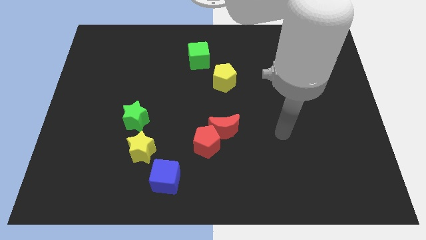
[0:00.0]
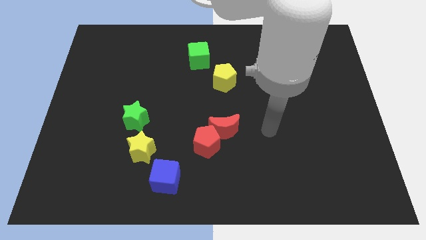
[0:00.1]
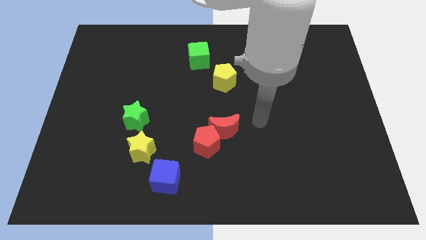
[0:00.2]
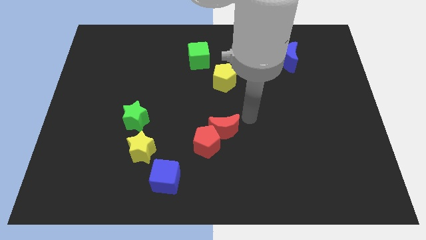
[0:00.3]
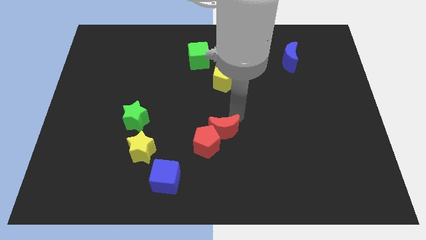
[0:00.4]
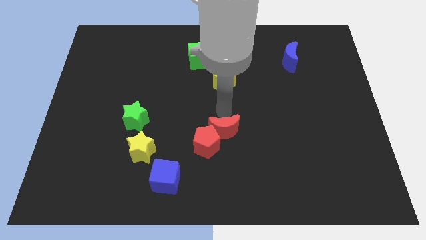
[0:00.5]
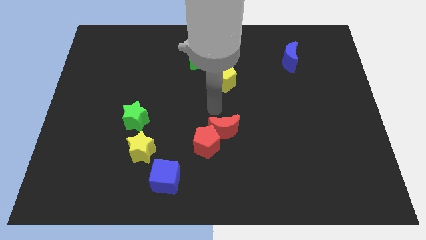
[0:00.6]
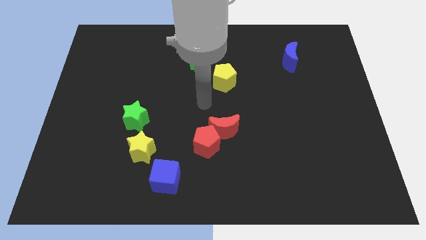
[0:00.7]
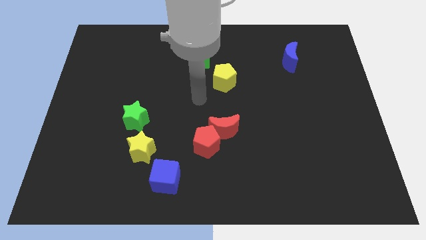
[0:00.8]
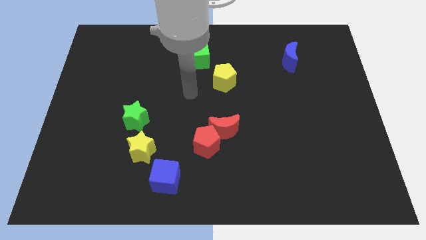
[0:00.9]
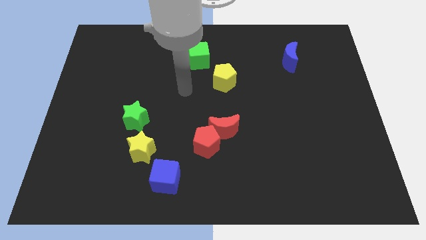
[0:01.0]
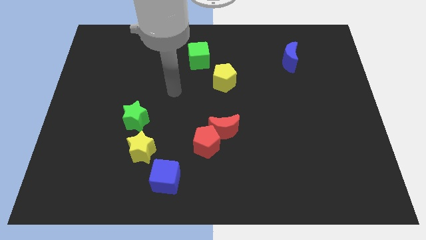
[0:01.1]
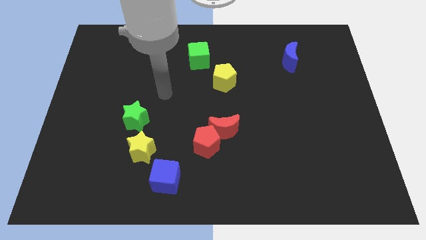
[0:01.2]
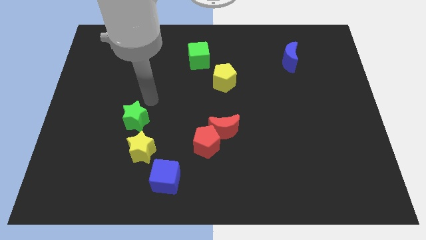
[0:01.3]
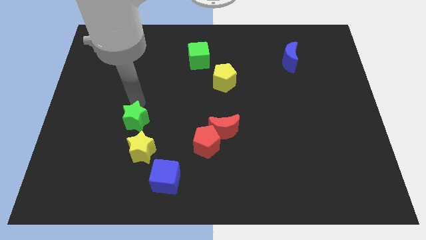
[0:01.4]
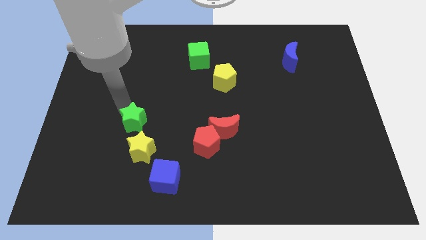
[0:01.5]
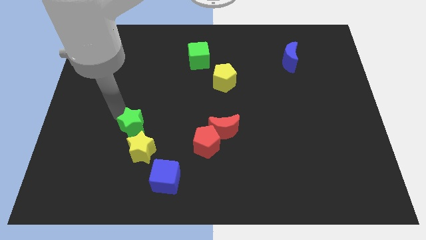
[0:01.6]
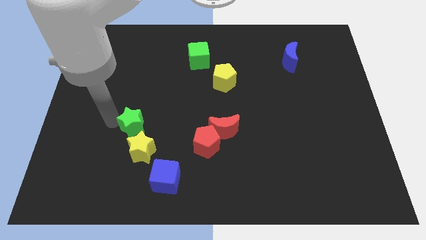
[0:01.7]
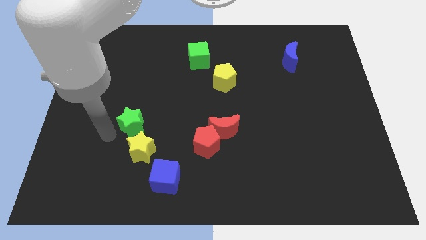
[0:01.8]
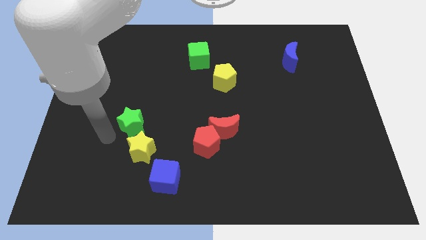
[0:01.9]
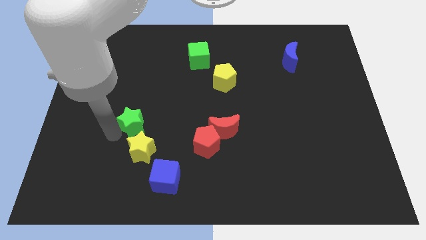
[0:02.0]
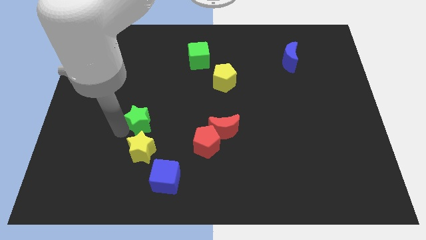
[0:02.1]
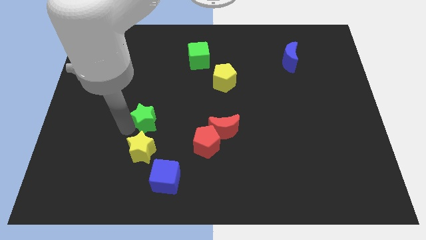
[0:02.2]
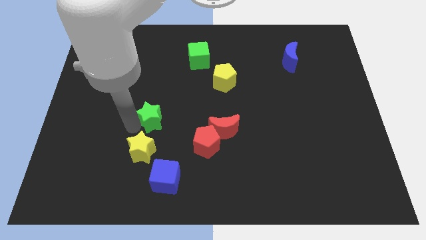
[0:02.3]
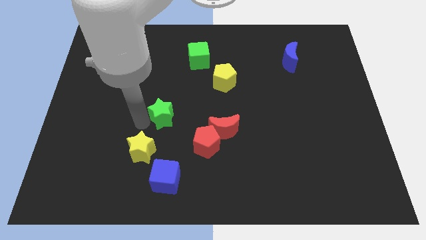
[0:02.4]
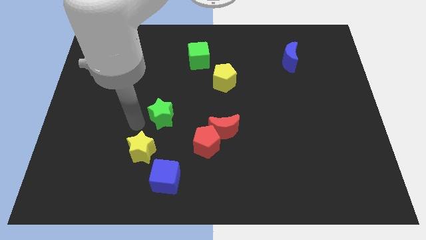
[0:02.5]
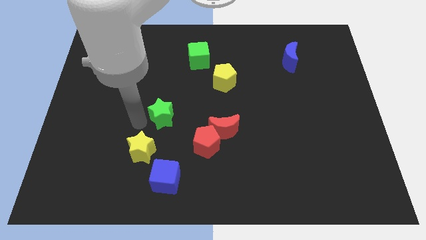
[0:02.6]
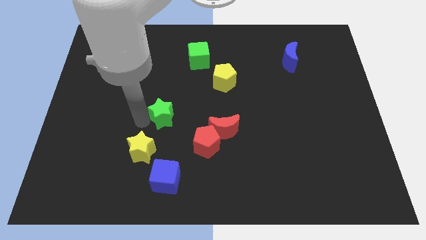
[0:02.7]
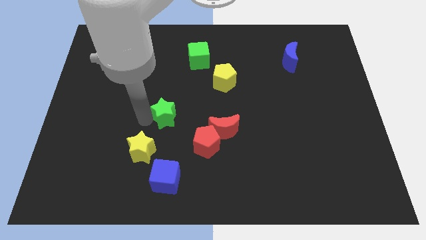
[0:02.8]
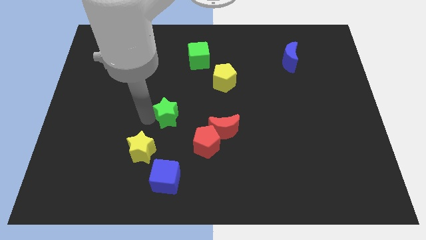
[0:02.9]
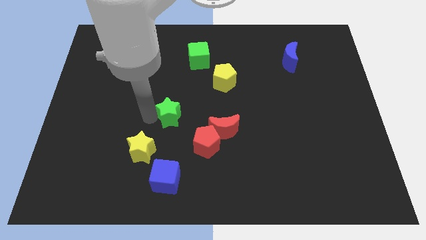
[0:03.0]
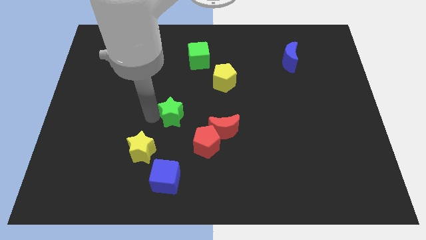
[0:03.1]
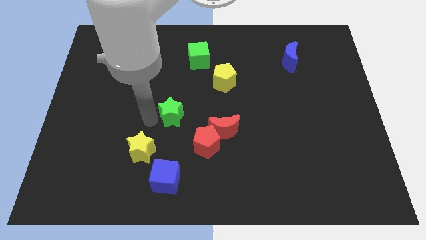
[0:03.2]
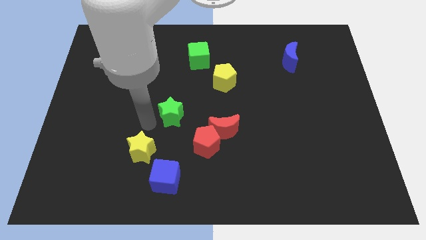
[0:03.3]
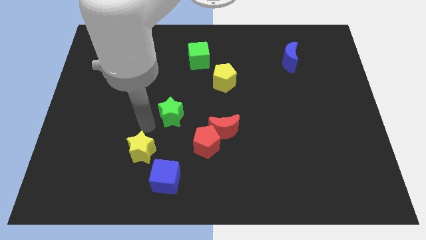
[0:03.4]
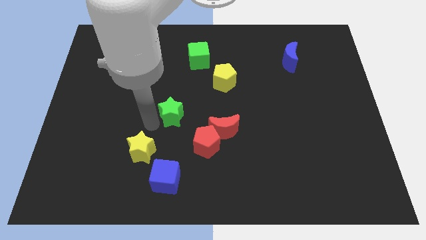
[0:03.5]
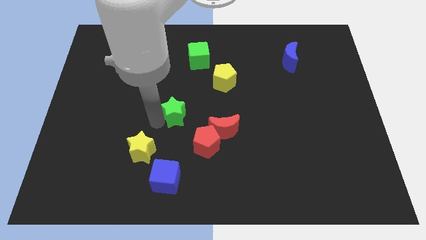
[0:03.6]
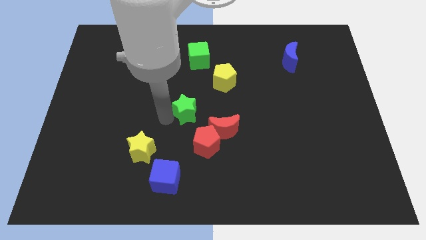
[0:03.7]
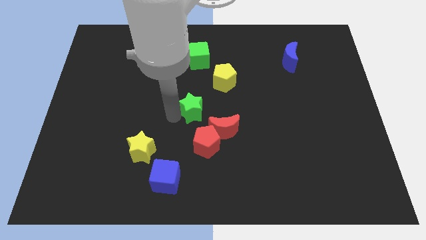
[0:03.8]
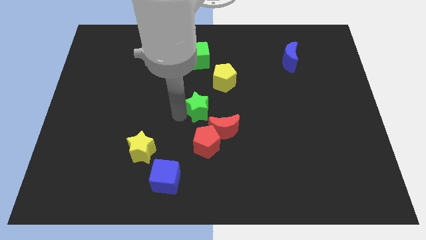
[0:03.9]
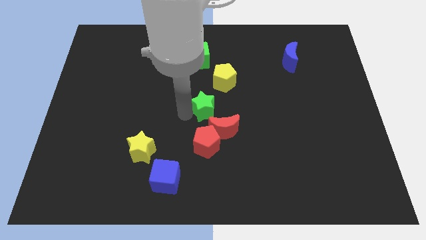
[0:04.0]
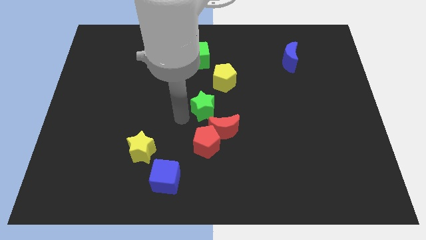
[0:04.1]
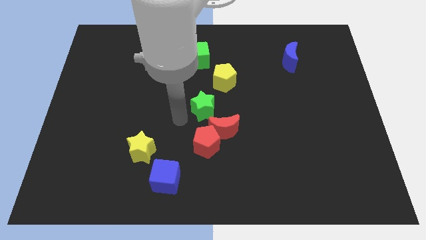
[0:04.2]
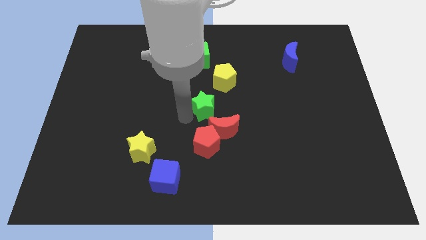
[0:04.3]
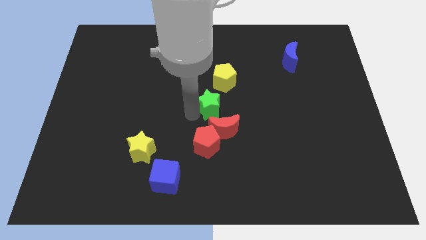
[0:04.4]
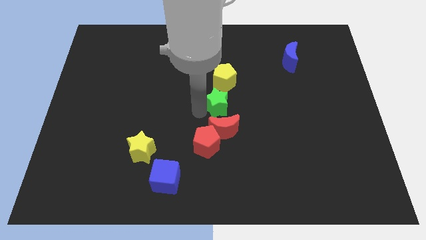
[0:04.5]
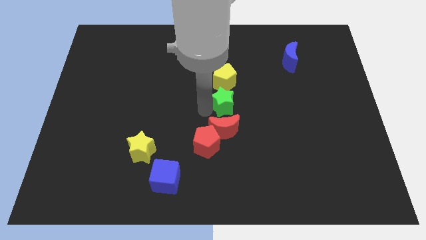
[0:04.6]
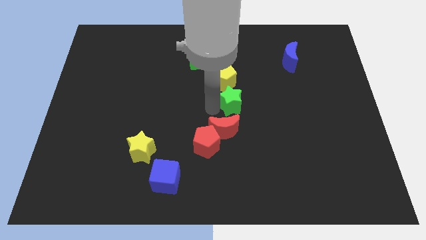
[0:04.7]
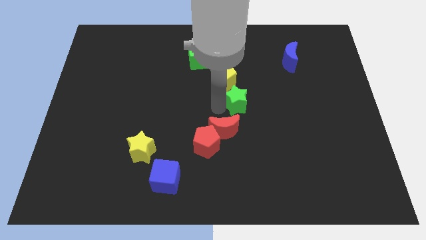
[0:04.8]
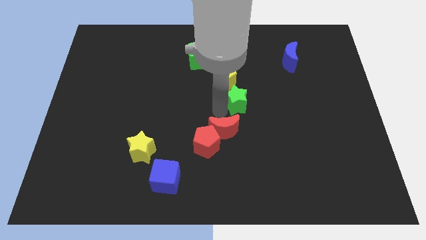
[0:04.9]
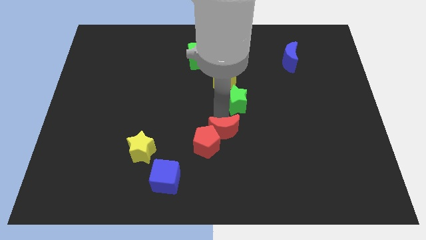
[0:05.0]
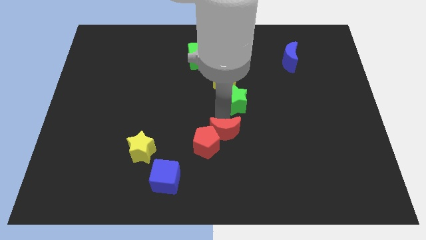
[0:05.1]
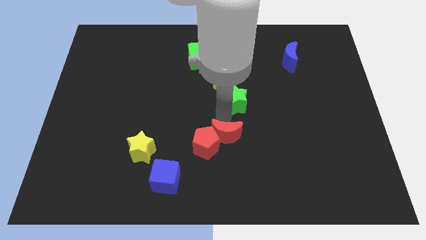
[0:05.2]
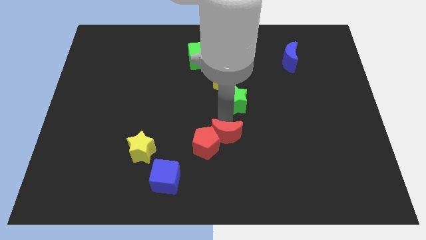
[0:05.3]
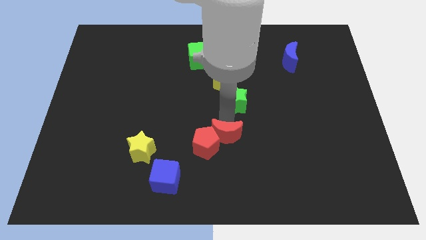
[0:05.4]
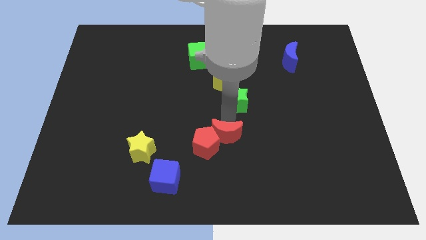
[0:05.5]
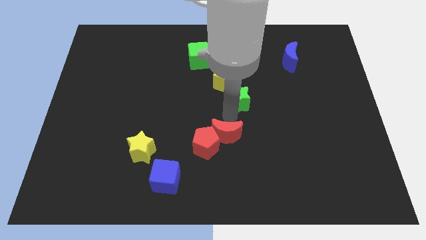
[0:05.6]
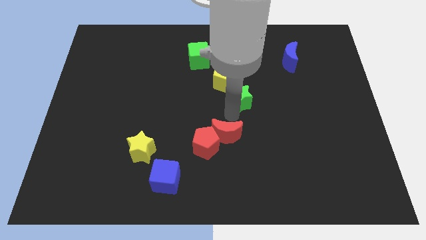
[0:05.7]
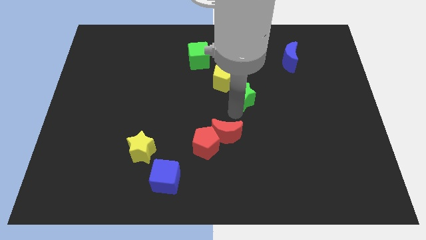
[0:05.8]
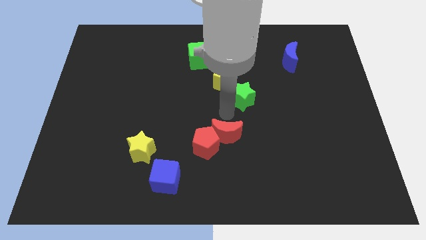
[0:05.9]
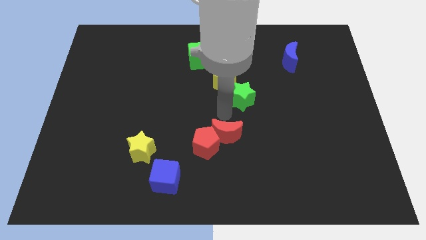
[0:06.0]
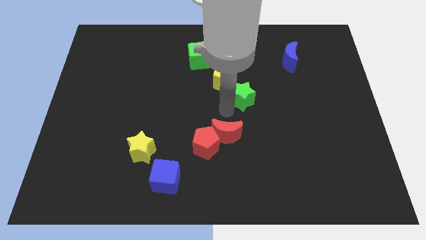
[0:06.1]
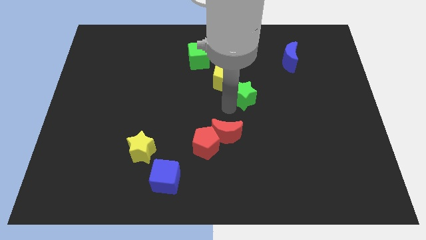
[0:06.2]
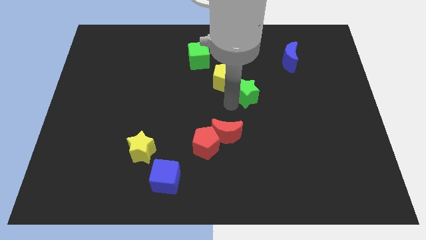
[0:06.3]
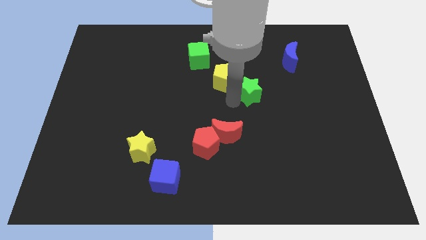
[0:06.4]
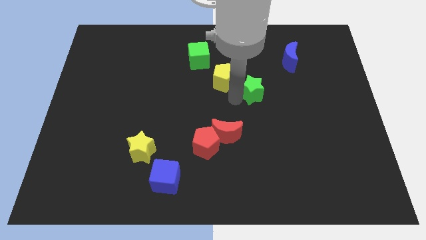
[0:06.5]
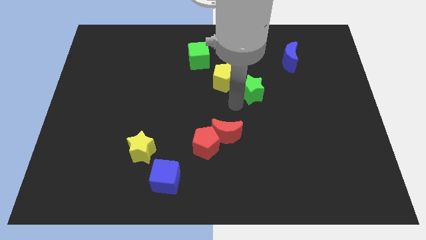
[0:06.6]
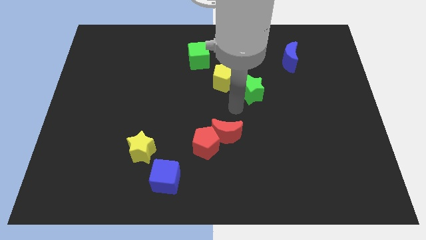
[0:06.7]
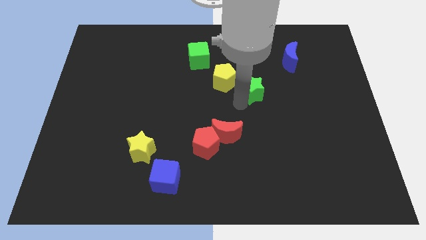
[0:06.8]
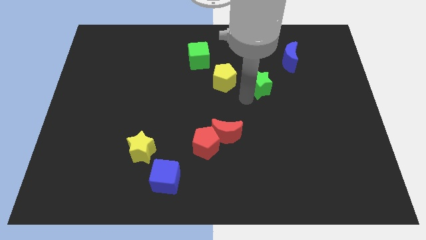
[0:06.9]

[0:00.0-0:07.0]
move the green star to the bottom left side of the blue moon

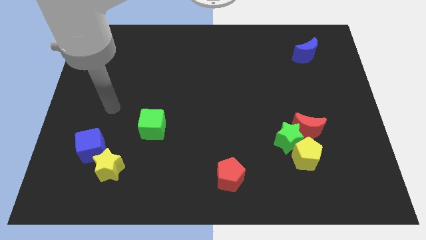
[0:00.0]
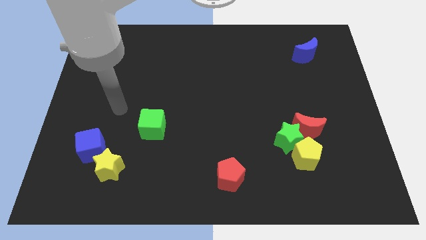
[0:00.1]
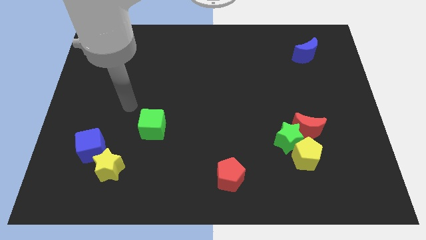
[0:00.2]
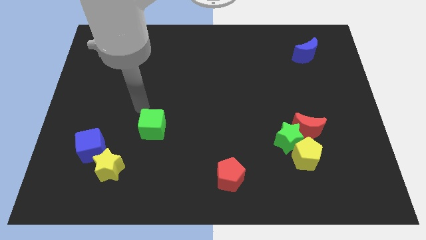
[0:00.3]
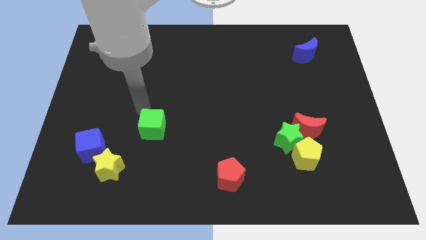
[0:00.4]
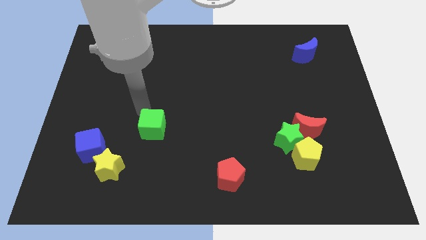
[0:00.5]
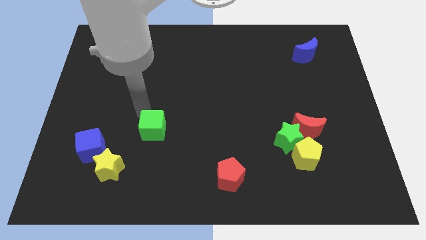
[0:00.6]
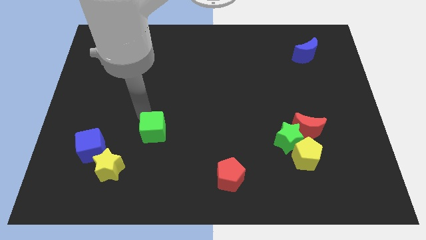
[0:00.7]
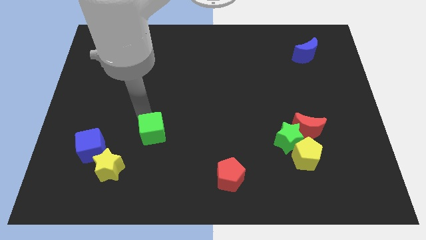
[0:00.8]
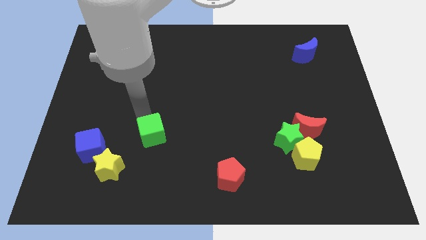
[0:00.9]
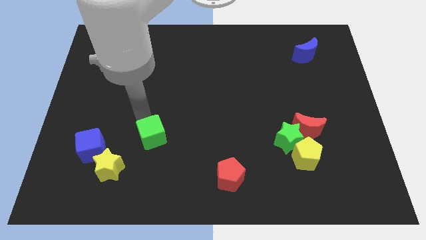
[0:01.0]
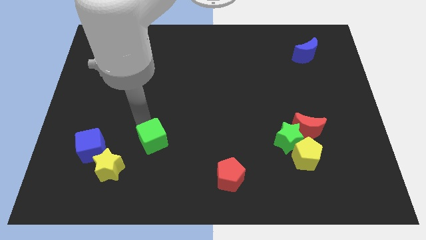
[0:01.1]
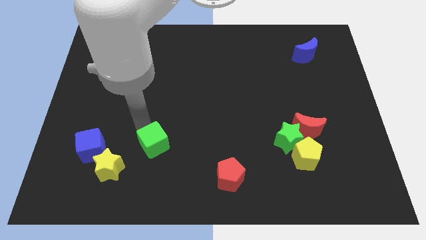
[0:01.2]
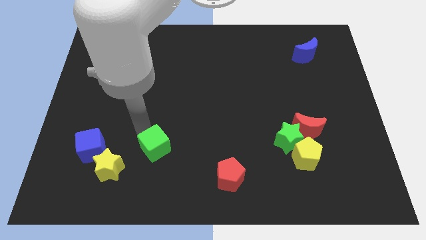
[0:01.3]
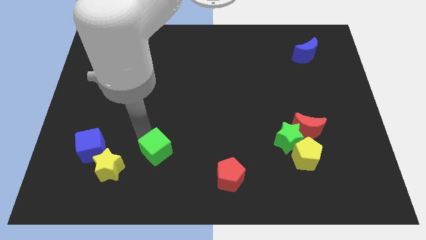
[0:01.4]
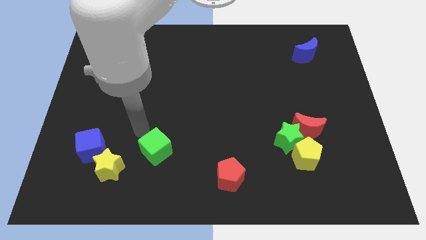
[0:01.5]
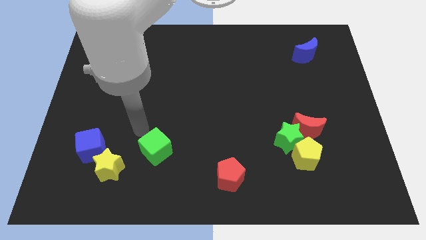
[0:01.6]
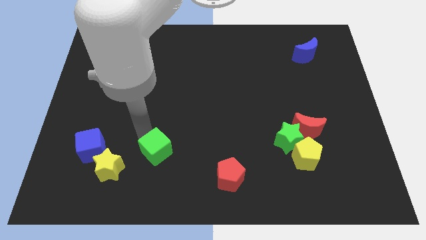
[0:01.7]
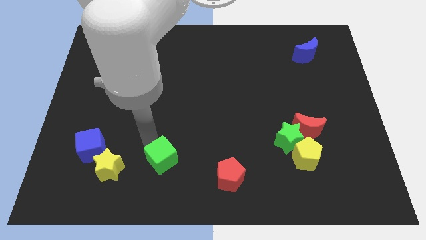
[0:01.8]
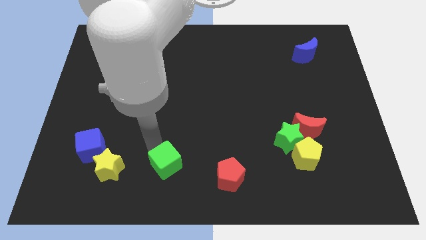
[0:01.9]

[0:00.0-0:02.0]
move the green cube left of the red pentagon
